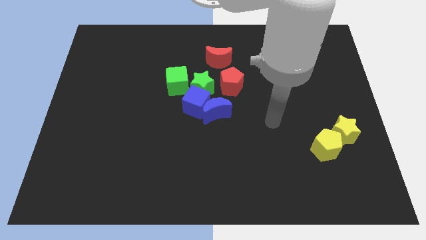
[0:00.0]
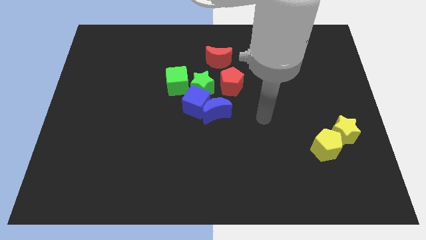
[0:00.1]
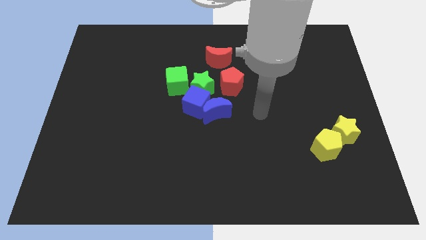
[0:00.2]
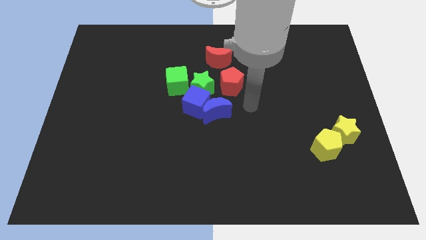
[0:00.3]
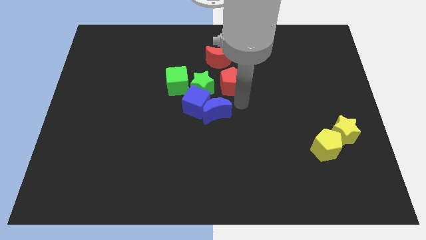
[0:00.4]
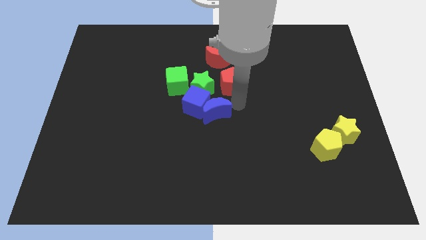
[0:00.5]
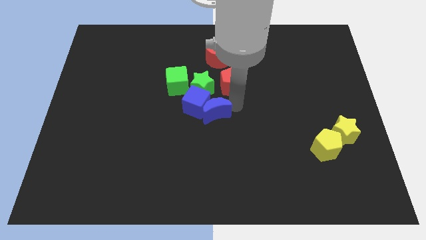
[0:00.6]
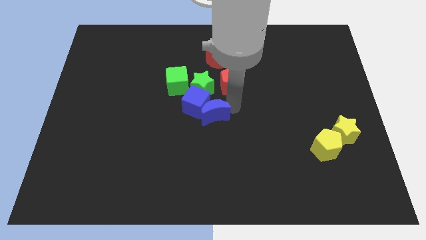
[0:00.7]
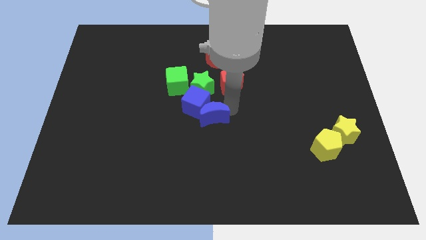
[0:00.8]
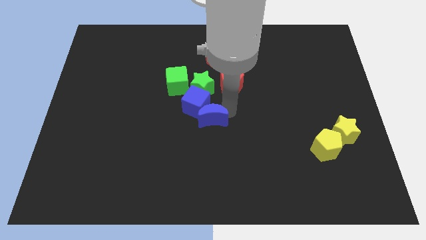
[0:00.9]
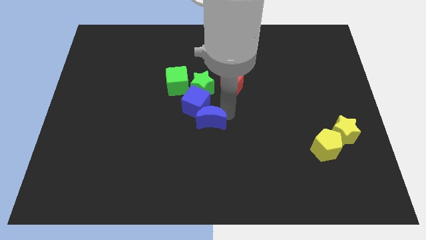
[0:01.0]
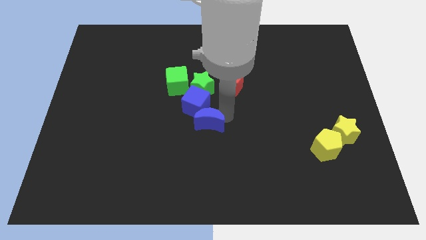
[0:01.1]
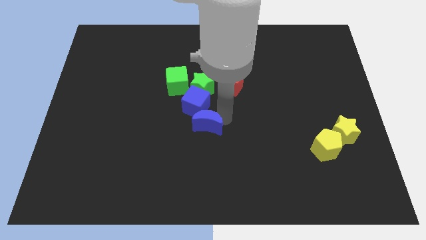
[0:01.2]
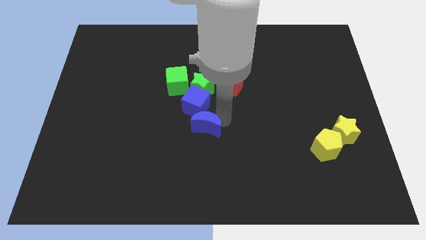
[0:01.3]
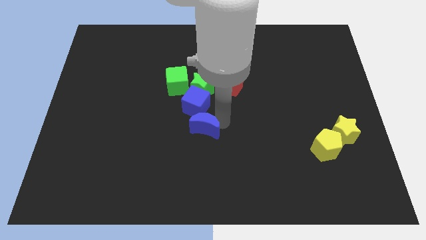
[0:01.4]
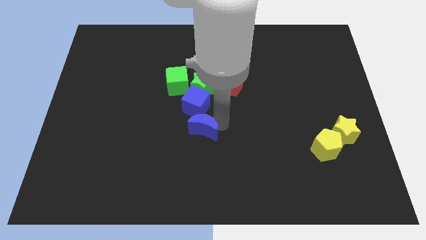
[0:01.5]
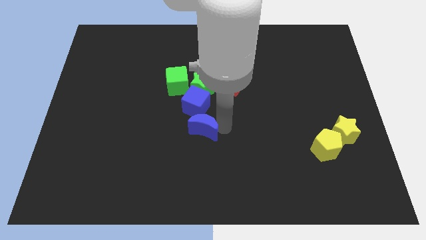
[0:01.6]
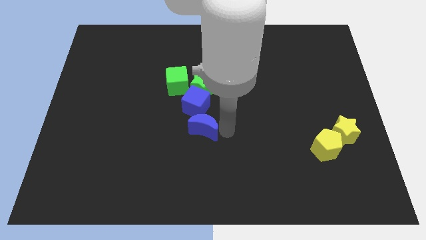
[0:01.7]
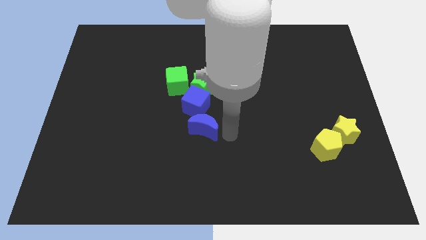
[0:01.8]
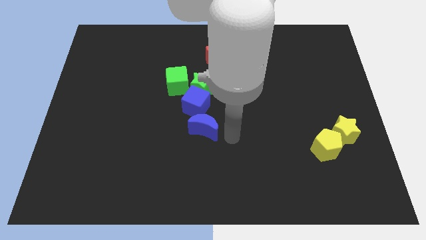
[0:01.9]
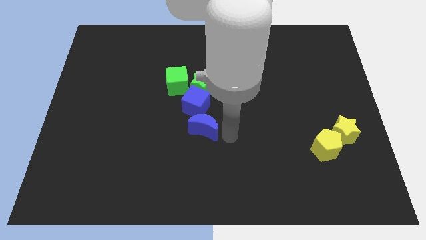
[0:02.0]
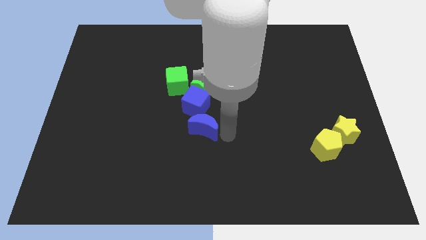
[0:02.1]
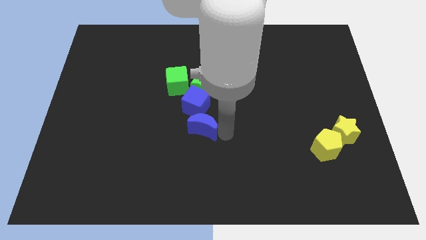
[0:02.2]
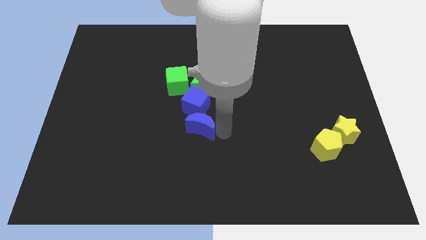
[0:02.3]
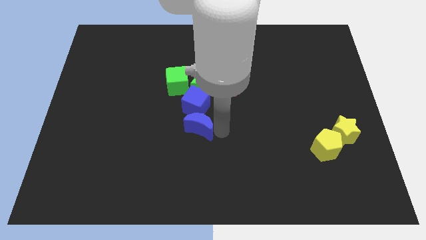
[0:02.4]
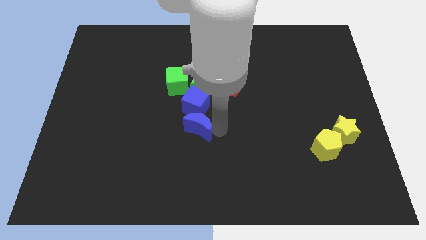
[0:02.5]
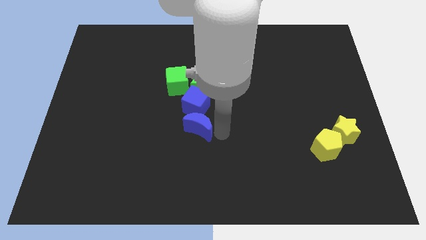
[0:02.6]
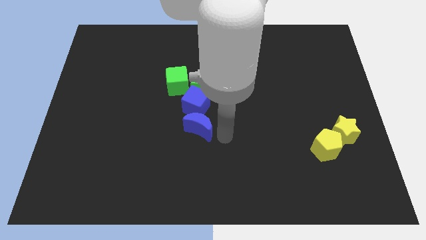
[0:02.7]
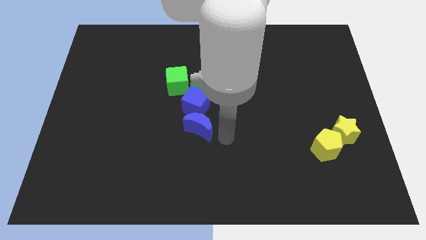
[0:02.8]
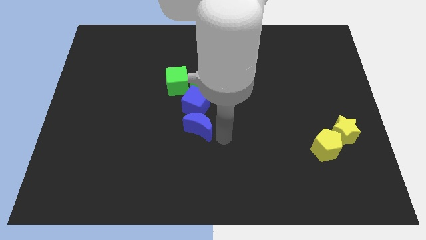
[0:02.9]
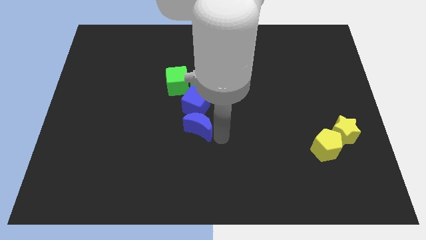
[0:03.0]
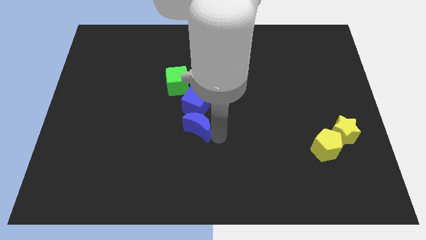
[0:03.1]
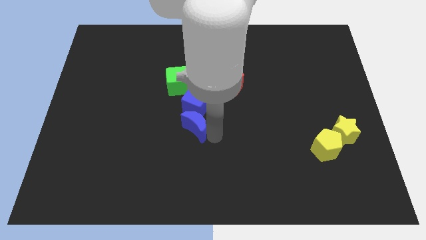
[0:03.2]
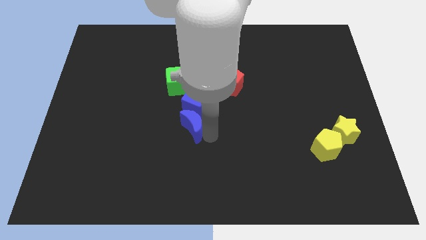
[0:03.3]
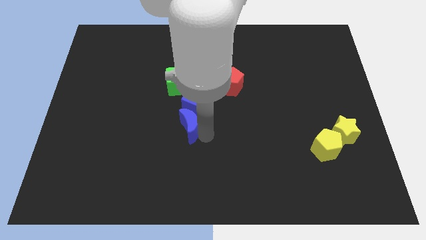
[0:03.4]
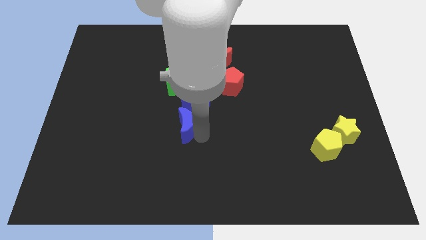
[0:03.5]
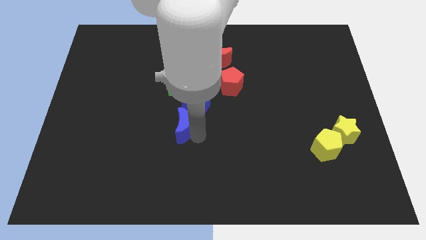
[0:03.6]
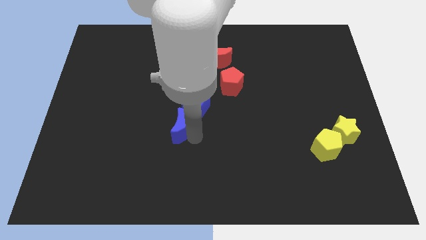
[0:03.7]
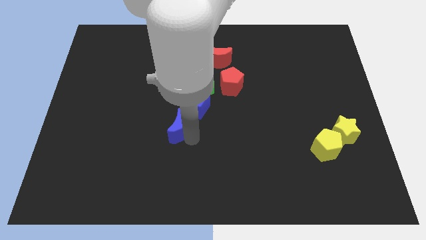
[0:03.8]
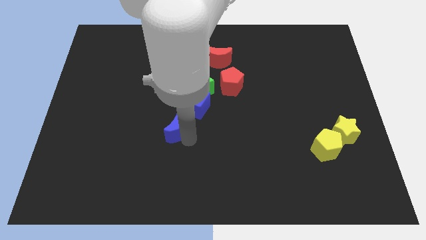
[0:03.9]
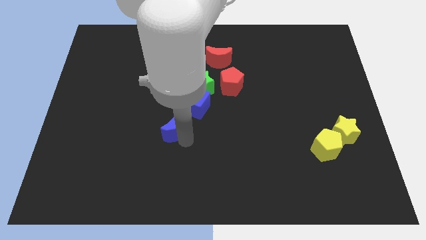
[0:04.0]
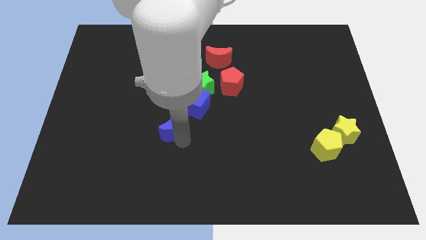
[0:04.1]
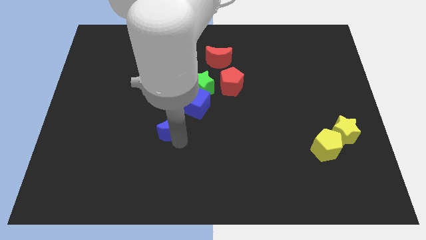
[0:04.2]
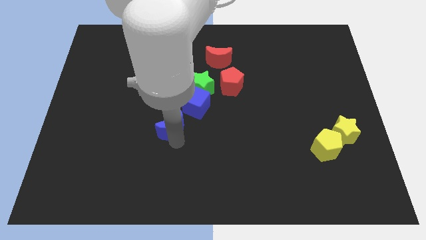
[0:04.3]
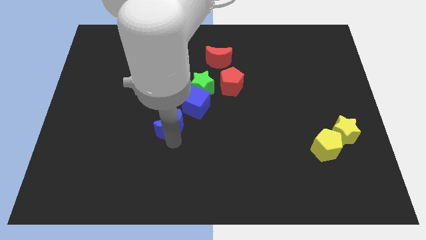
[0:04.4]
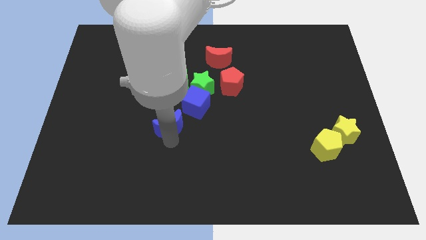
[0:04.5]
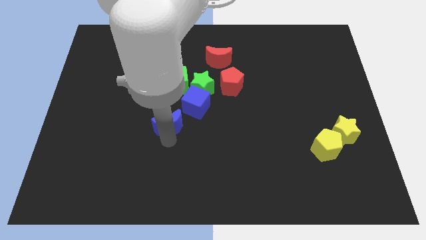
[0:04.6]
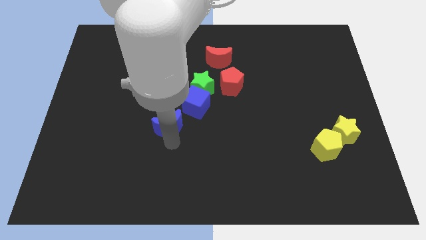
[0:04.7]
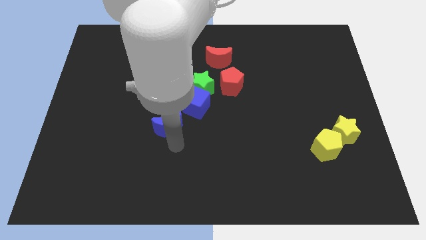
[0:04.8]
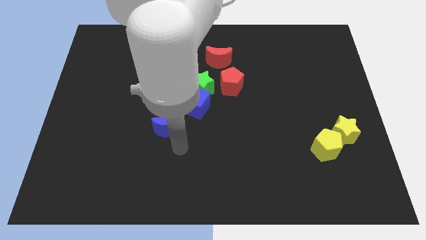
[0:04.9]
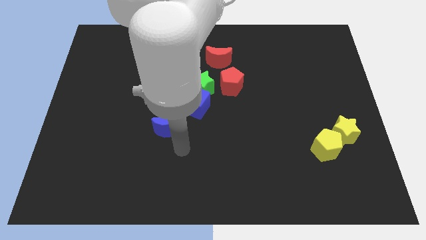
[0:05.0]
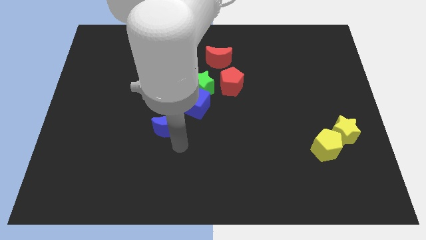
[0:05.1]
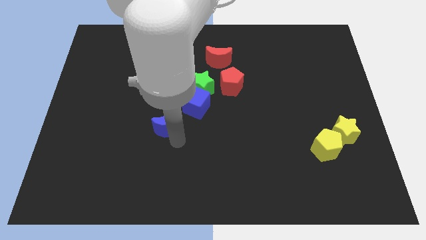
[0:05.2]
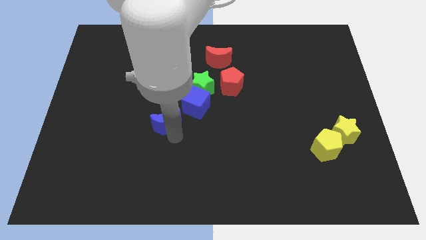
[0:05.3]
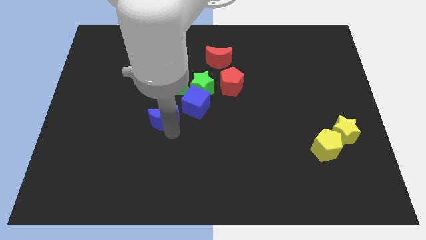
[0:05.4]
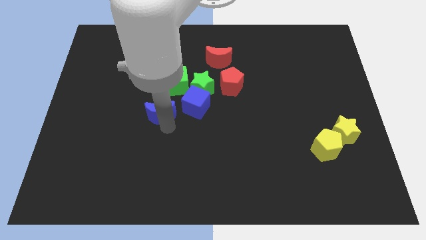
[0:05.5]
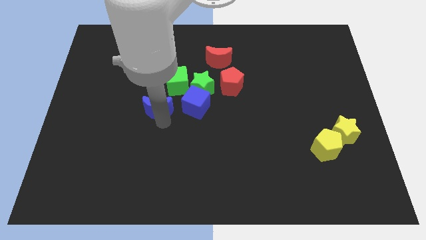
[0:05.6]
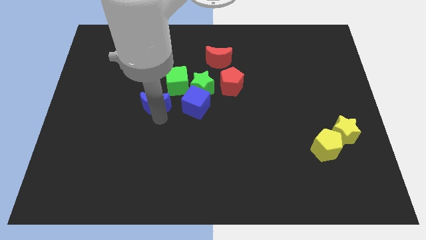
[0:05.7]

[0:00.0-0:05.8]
slightly slide the blue moon upwards and then left

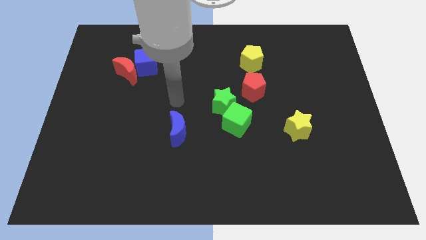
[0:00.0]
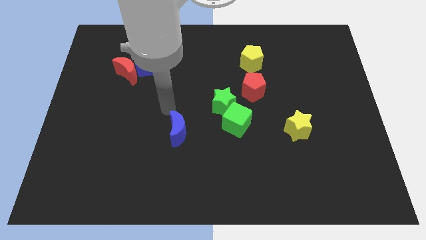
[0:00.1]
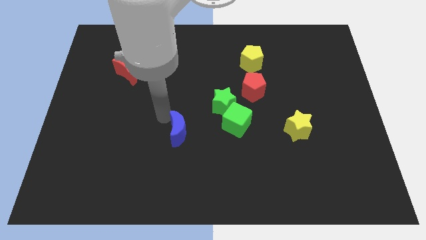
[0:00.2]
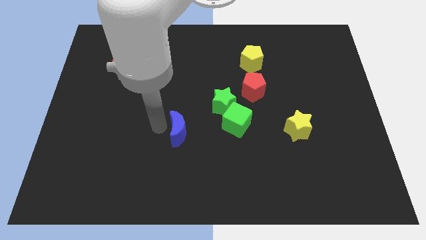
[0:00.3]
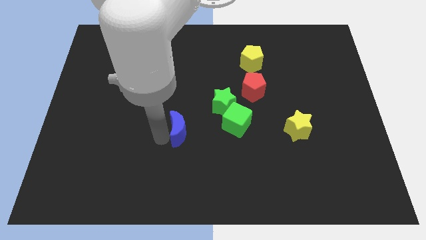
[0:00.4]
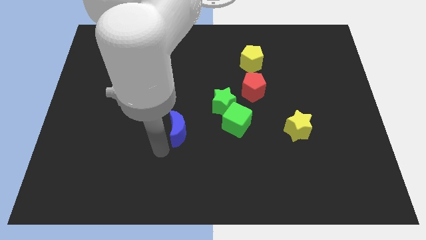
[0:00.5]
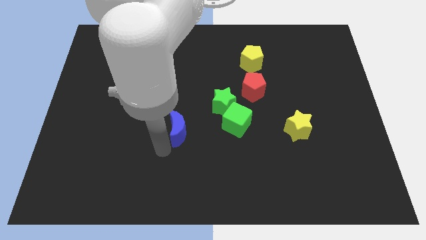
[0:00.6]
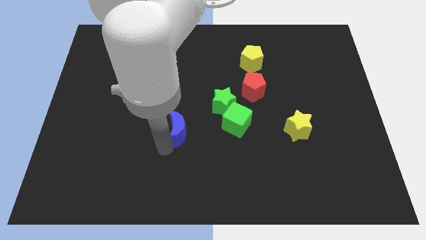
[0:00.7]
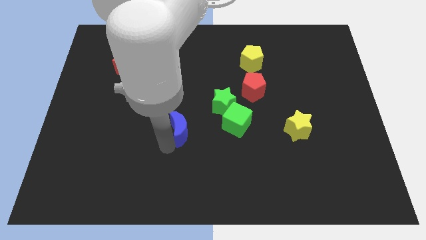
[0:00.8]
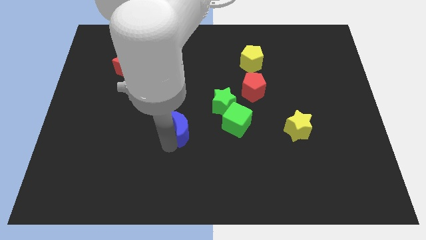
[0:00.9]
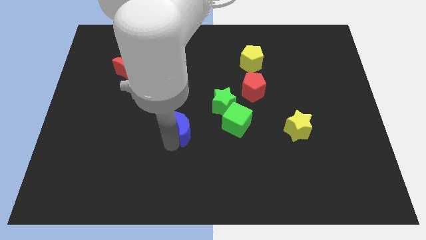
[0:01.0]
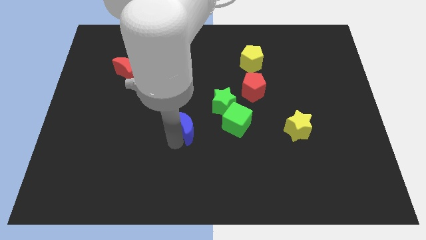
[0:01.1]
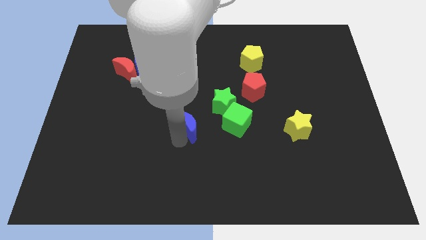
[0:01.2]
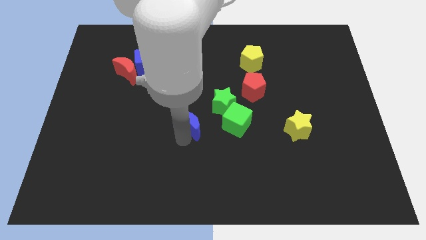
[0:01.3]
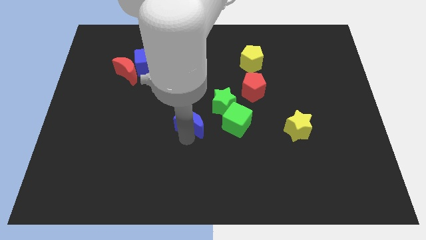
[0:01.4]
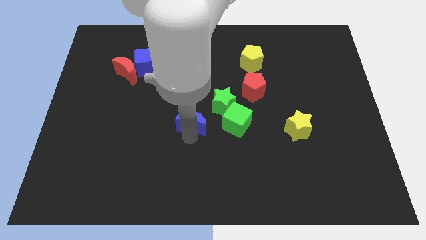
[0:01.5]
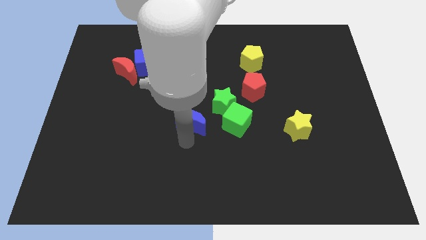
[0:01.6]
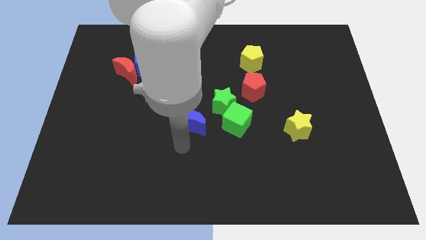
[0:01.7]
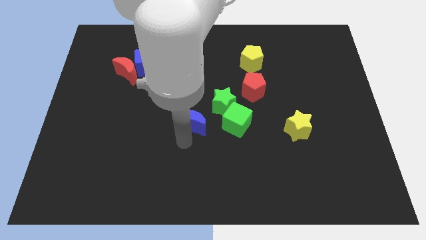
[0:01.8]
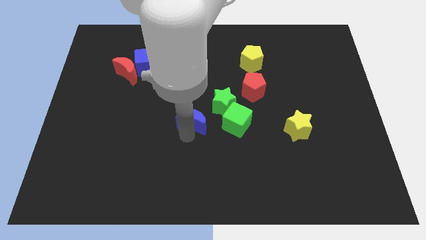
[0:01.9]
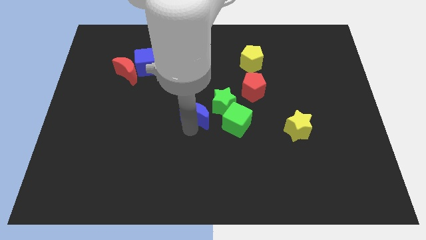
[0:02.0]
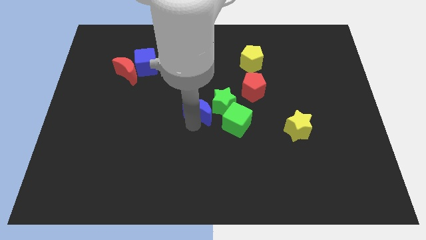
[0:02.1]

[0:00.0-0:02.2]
slide the blue moon a bit diagonally up and right
